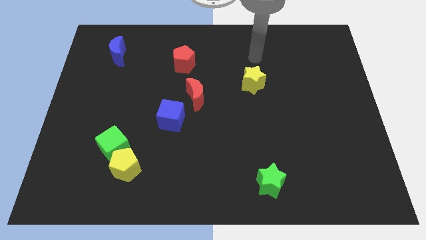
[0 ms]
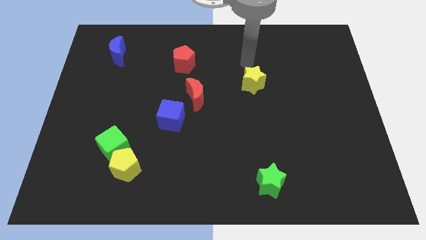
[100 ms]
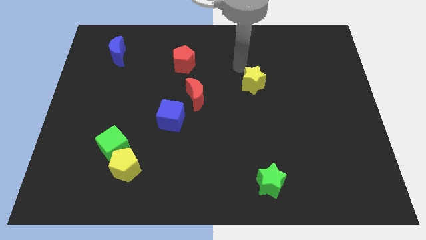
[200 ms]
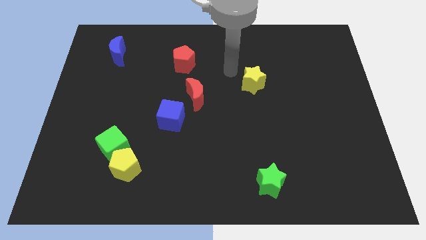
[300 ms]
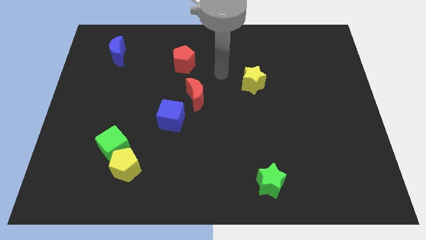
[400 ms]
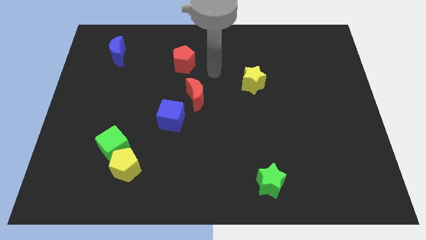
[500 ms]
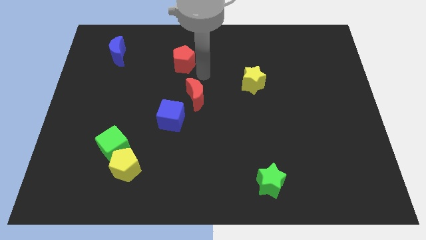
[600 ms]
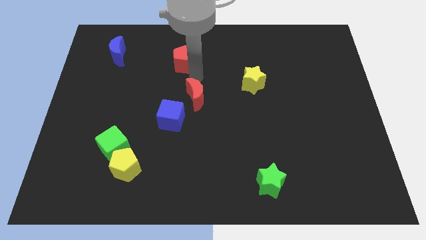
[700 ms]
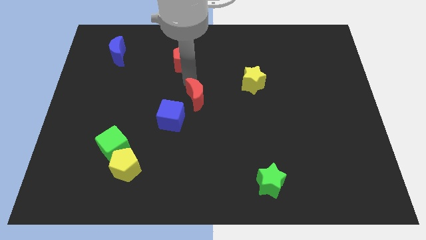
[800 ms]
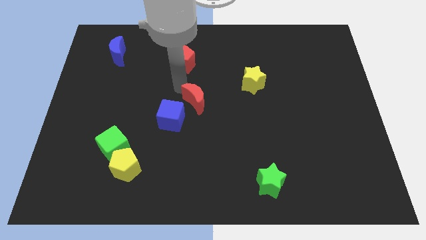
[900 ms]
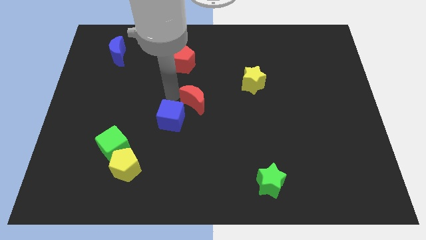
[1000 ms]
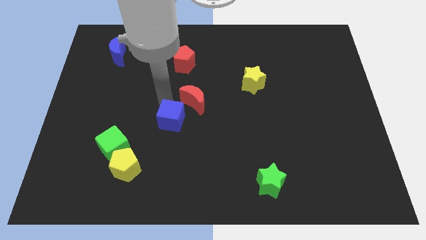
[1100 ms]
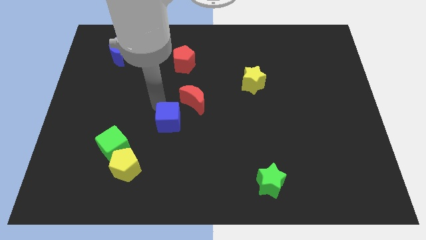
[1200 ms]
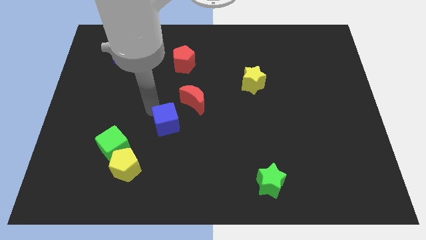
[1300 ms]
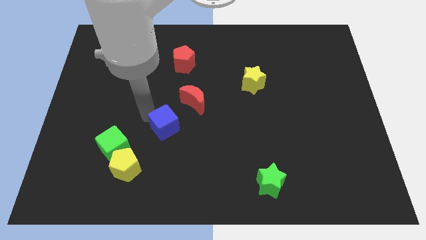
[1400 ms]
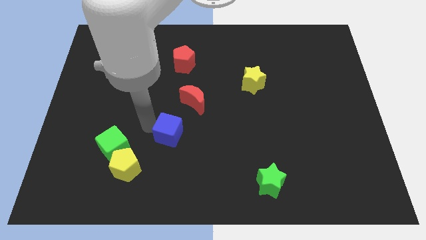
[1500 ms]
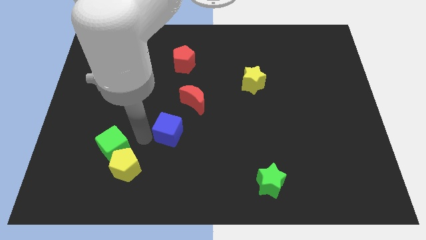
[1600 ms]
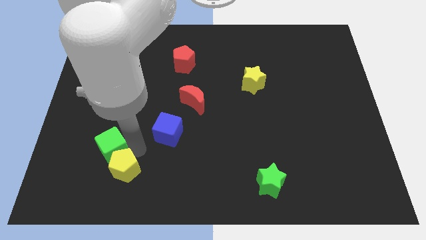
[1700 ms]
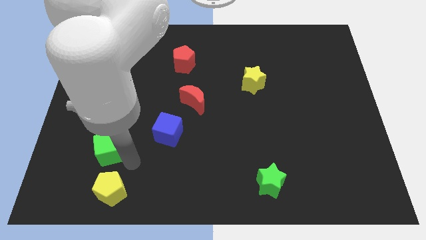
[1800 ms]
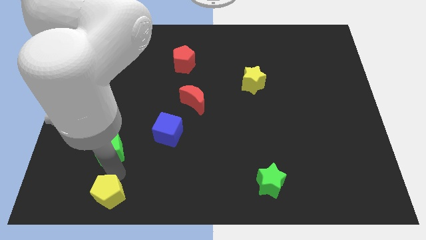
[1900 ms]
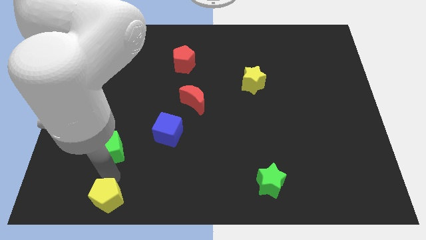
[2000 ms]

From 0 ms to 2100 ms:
separate the green cube from the yellow pentagon

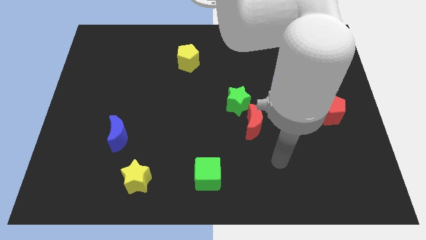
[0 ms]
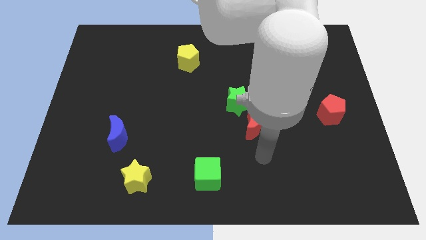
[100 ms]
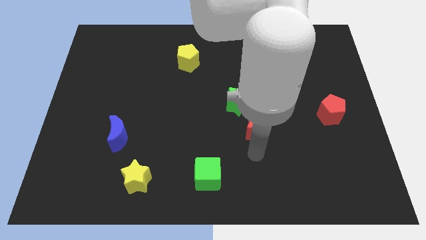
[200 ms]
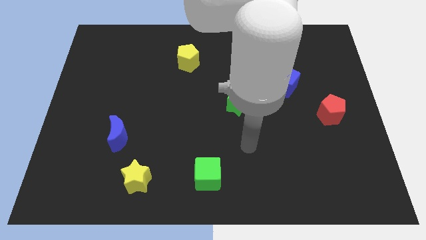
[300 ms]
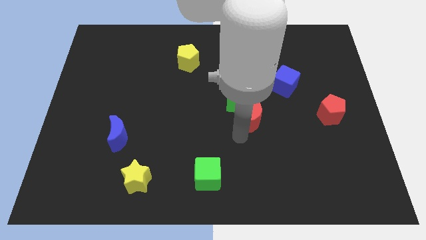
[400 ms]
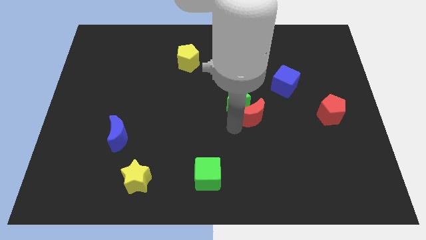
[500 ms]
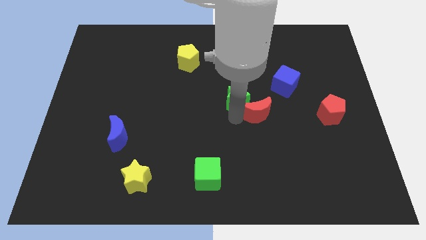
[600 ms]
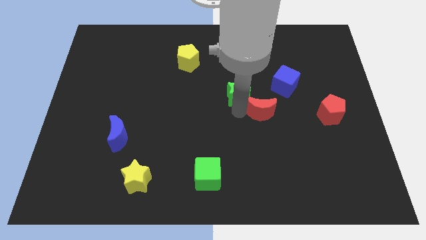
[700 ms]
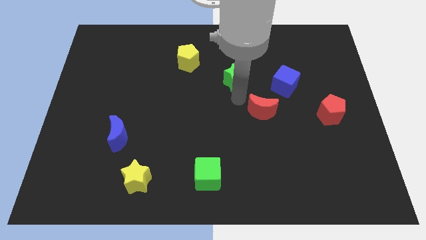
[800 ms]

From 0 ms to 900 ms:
move the red moon away from the green star

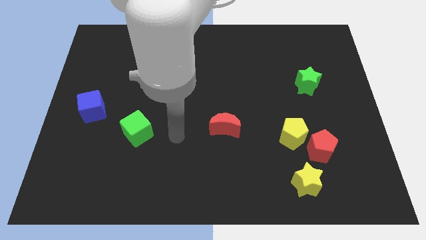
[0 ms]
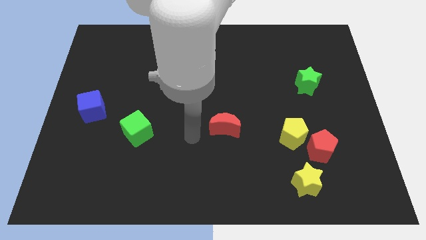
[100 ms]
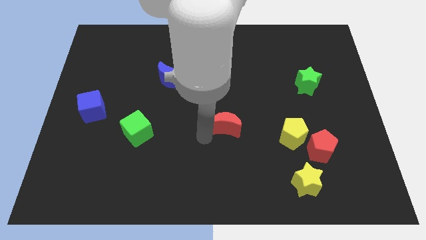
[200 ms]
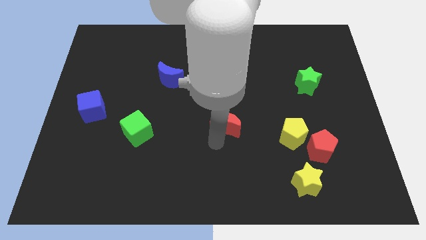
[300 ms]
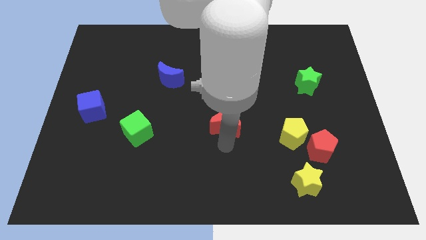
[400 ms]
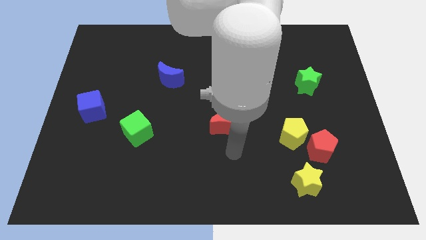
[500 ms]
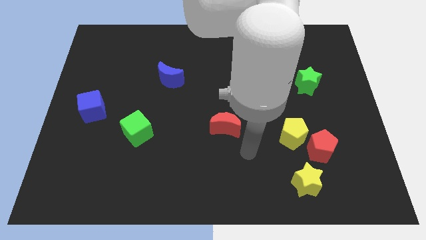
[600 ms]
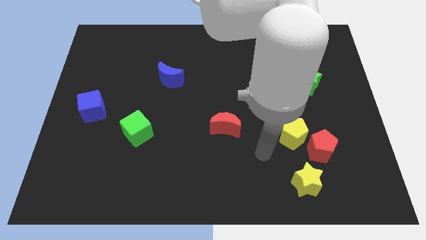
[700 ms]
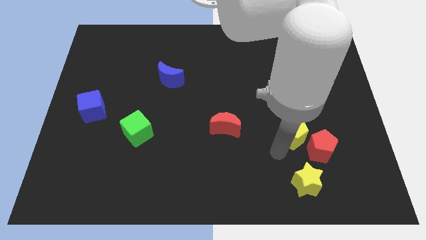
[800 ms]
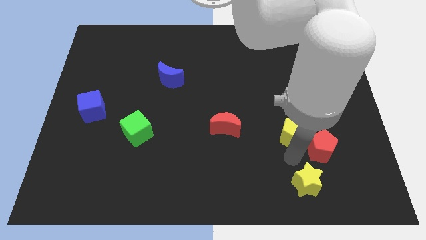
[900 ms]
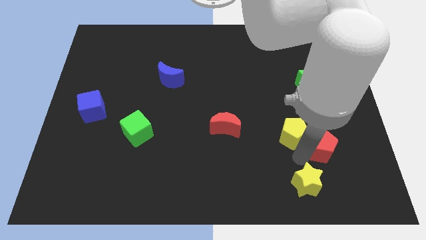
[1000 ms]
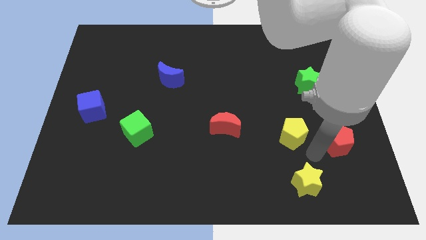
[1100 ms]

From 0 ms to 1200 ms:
separate the yellow pentagon from the red pentagon

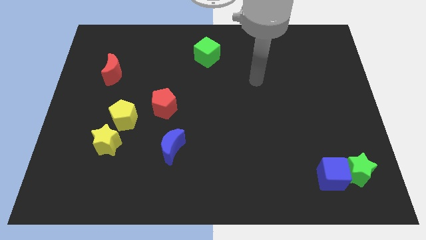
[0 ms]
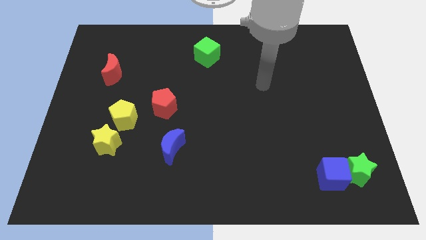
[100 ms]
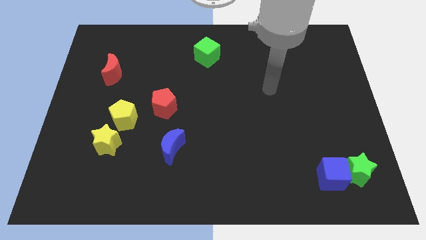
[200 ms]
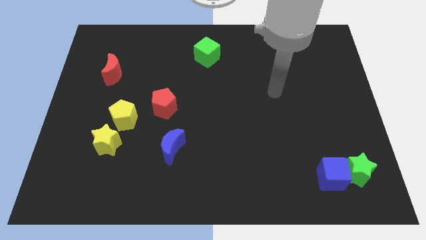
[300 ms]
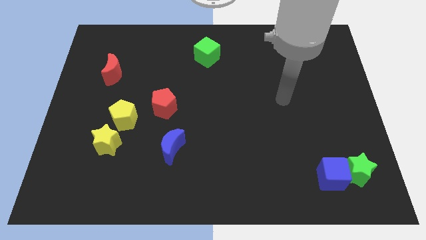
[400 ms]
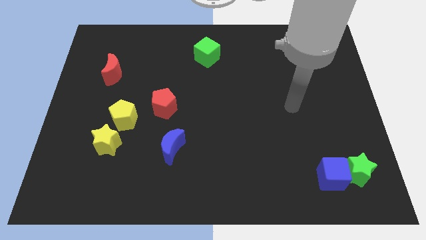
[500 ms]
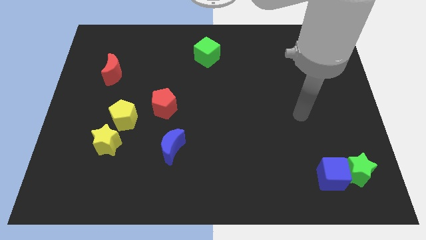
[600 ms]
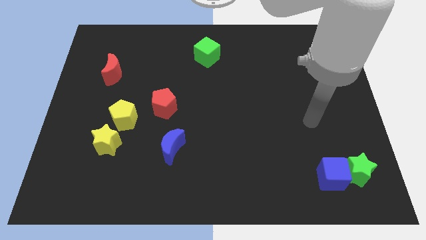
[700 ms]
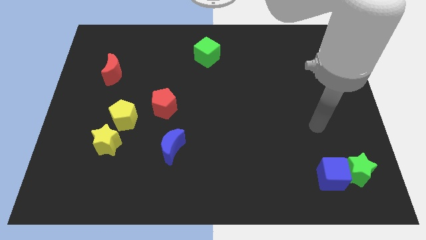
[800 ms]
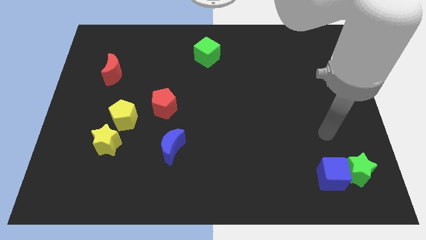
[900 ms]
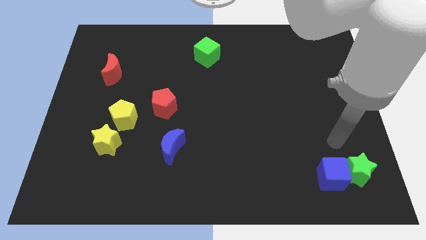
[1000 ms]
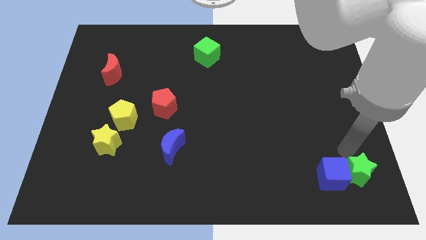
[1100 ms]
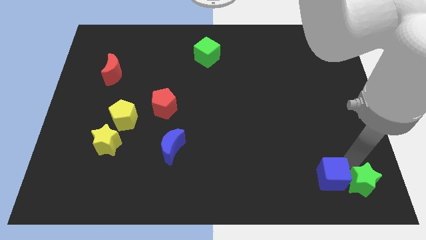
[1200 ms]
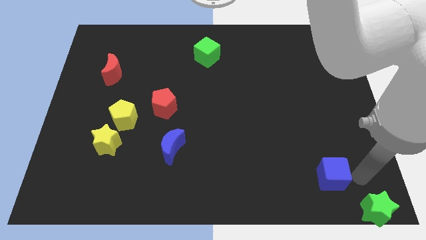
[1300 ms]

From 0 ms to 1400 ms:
separate the blue cube from the green star

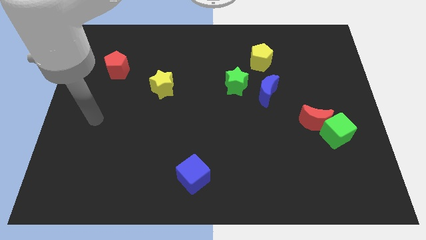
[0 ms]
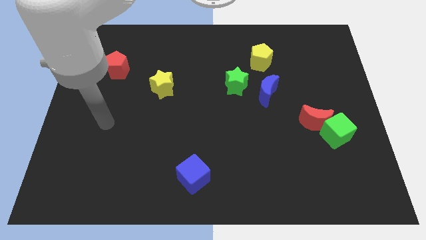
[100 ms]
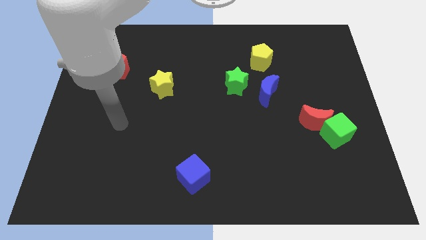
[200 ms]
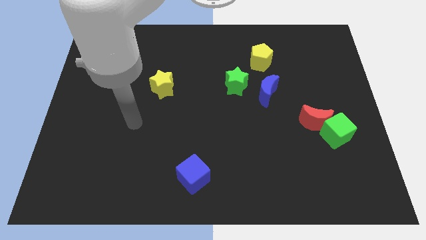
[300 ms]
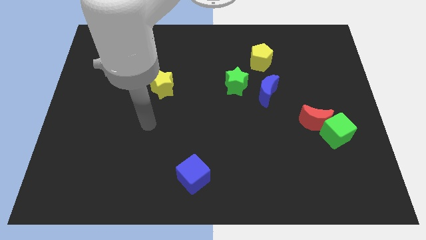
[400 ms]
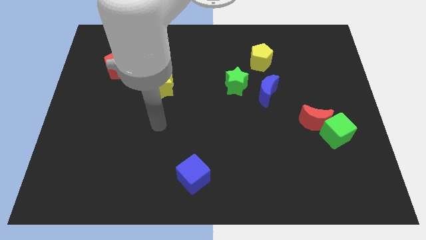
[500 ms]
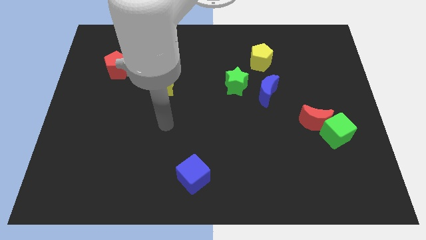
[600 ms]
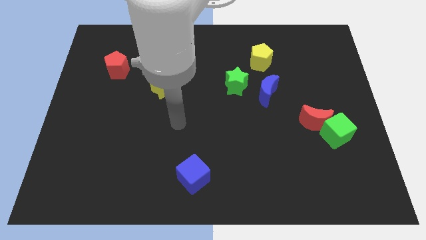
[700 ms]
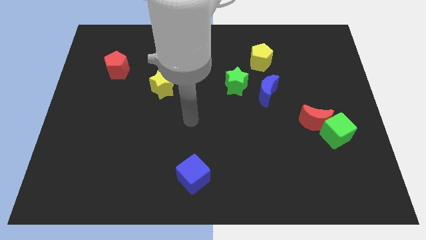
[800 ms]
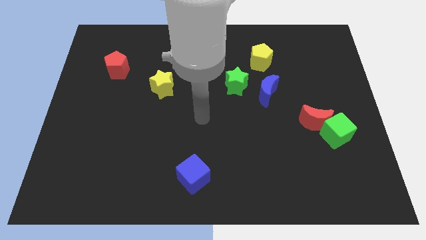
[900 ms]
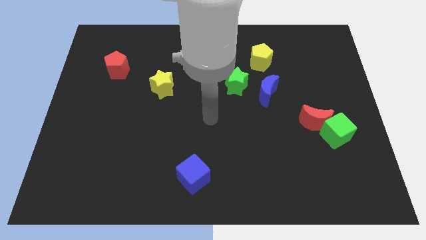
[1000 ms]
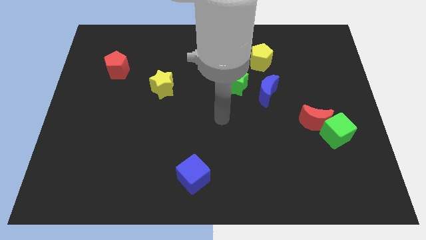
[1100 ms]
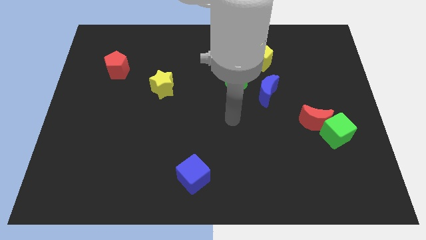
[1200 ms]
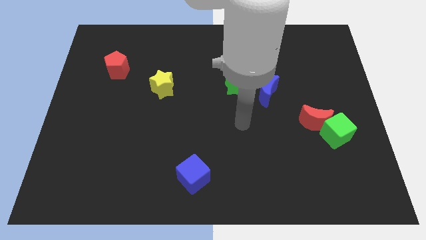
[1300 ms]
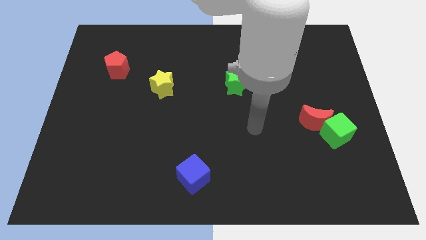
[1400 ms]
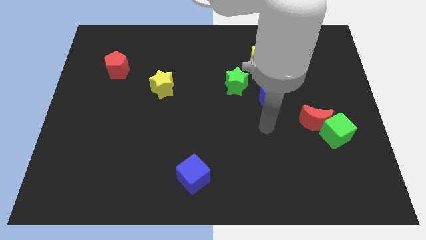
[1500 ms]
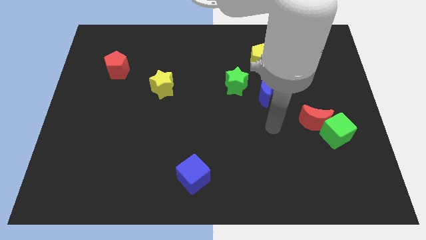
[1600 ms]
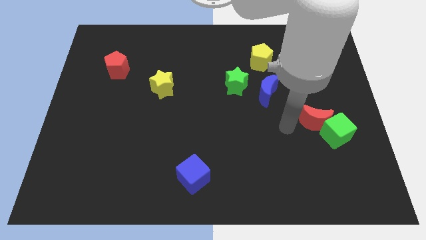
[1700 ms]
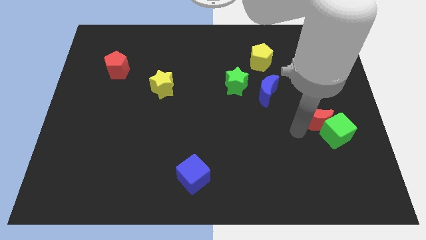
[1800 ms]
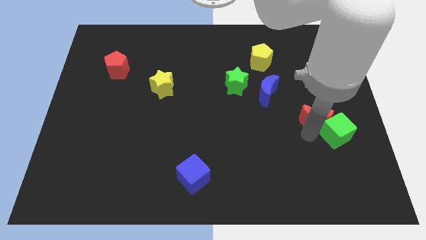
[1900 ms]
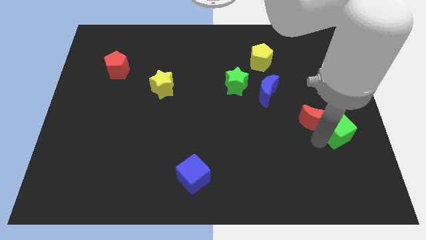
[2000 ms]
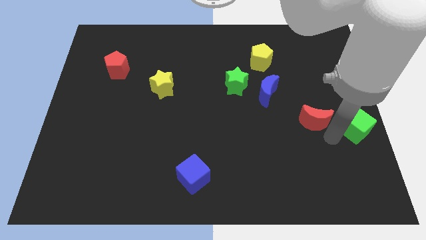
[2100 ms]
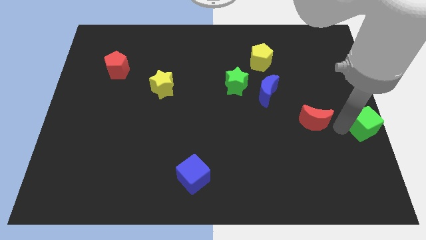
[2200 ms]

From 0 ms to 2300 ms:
separate the red moon from the green cube

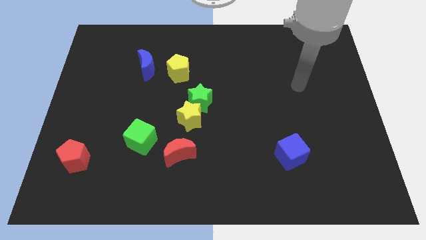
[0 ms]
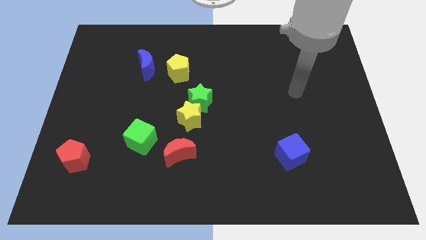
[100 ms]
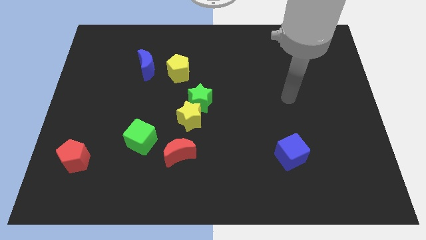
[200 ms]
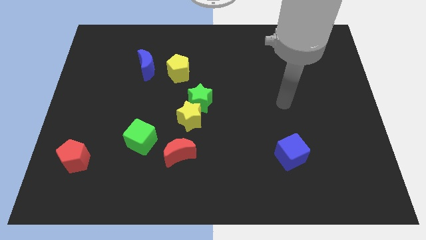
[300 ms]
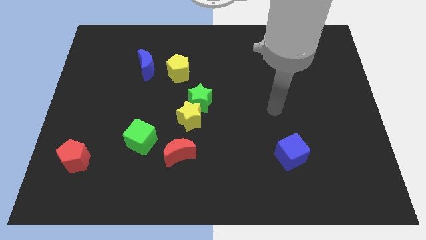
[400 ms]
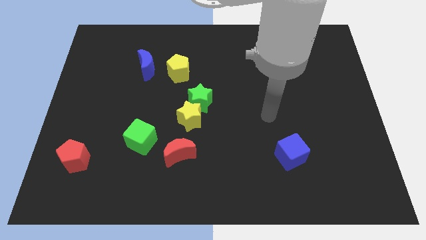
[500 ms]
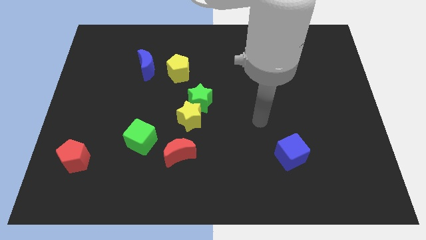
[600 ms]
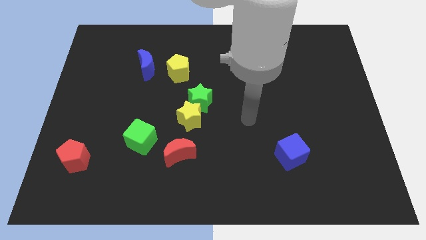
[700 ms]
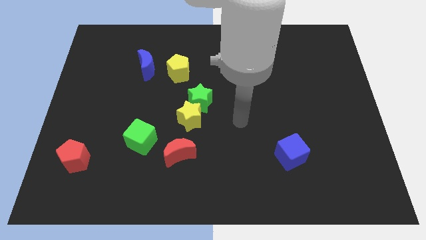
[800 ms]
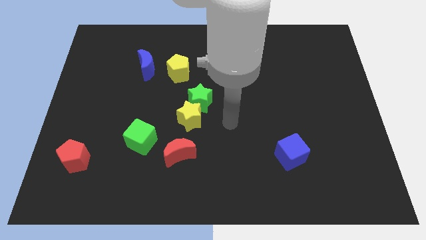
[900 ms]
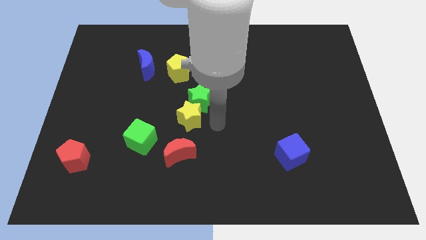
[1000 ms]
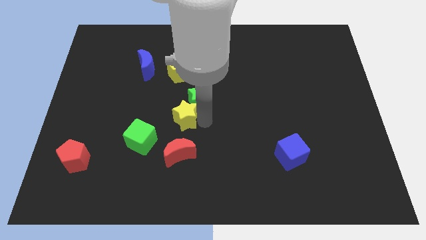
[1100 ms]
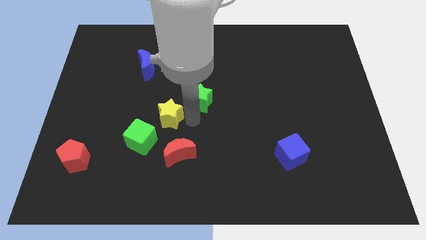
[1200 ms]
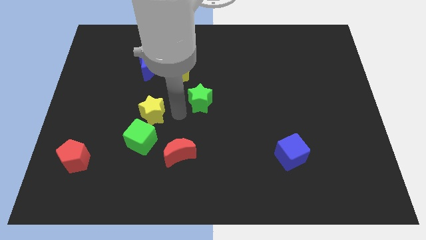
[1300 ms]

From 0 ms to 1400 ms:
separate the green star from the yellow star
